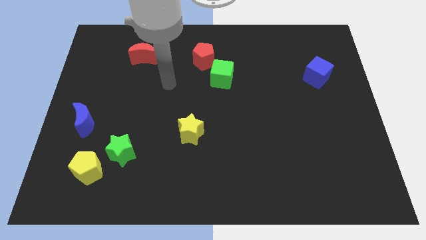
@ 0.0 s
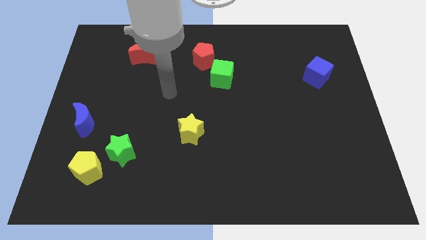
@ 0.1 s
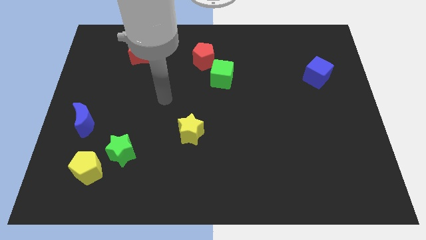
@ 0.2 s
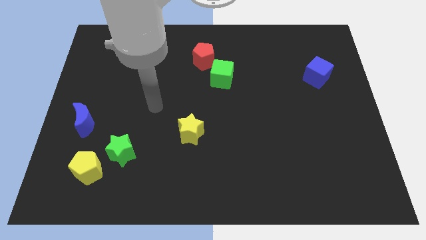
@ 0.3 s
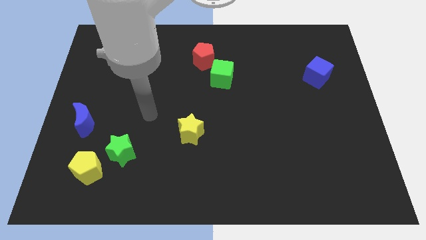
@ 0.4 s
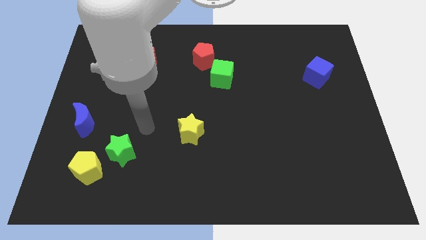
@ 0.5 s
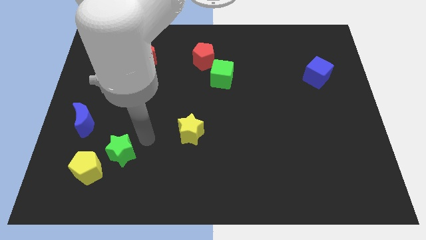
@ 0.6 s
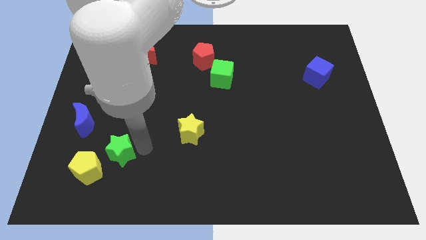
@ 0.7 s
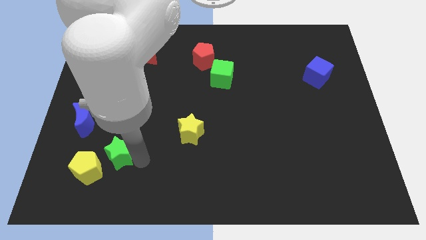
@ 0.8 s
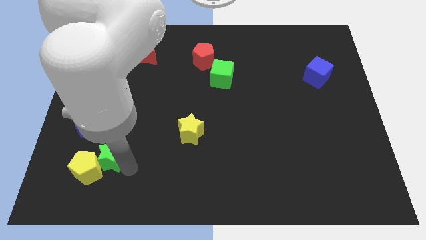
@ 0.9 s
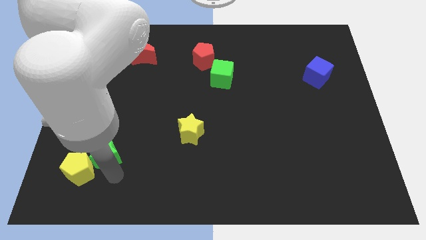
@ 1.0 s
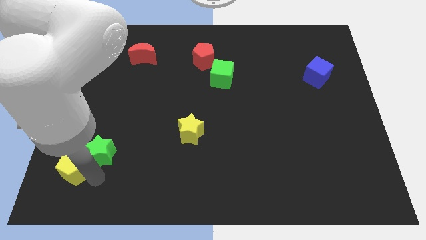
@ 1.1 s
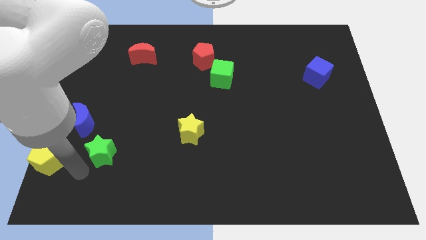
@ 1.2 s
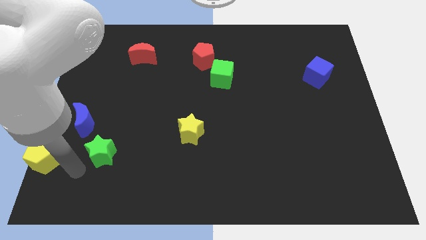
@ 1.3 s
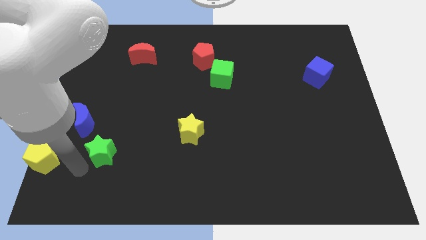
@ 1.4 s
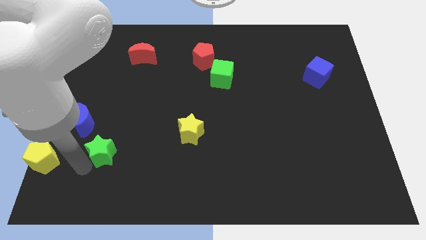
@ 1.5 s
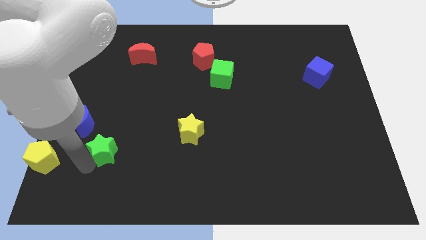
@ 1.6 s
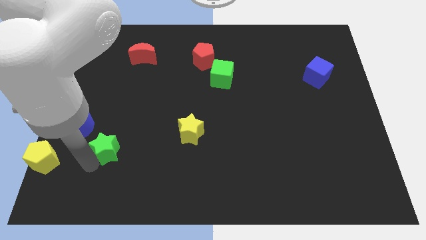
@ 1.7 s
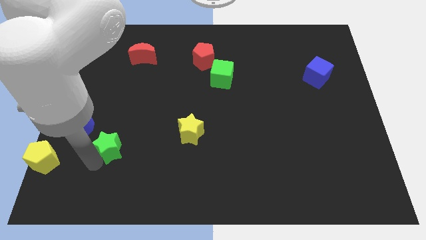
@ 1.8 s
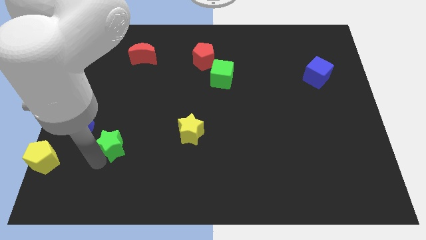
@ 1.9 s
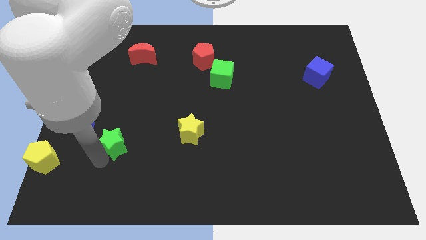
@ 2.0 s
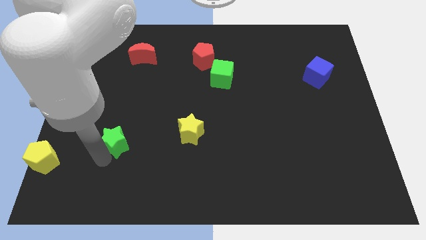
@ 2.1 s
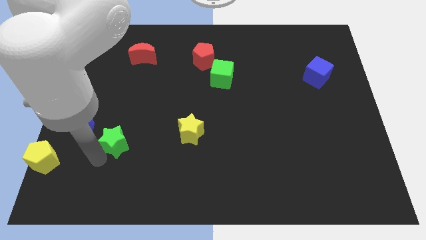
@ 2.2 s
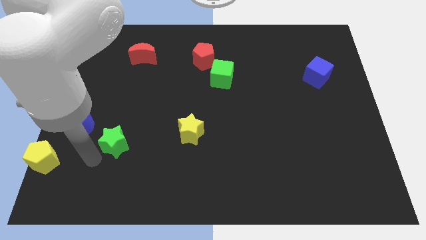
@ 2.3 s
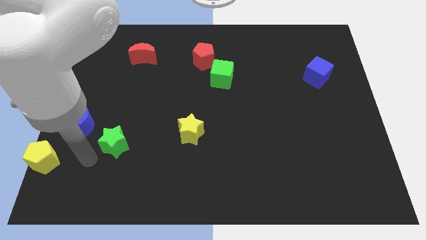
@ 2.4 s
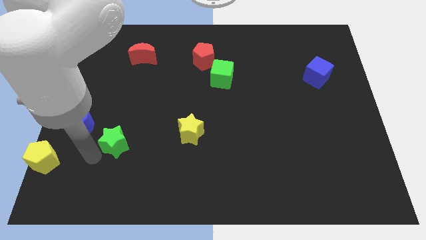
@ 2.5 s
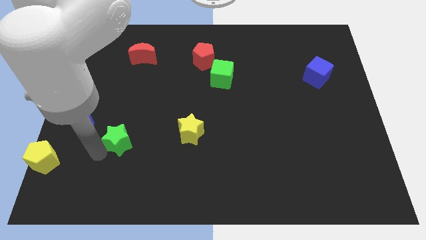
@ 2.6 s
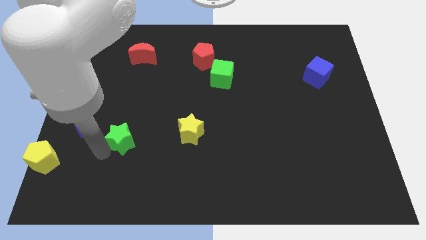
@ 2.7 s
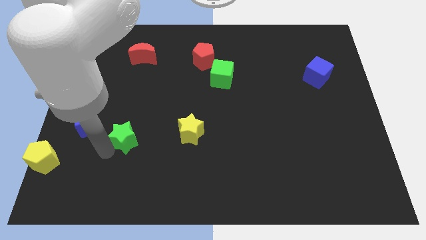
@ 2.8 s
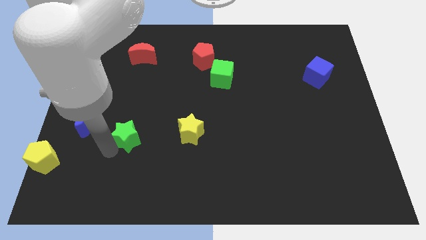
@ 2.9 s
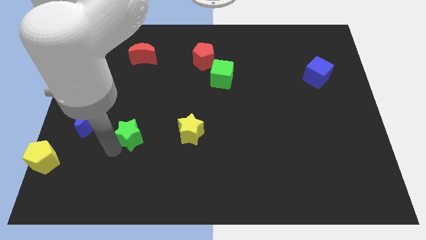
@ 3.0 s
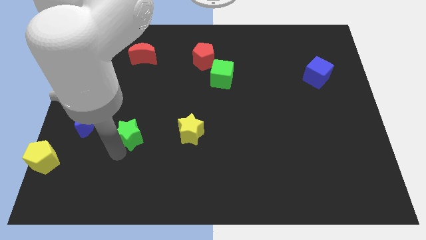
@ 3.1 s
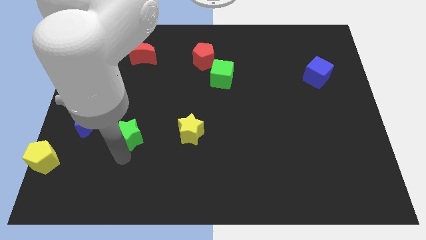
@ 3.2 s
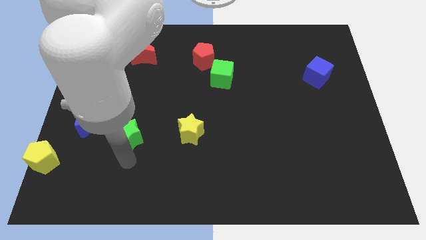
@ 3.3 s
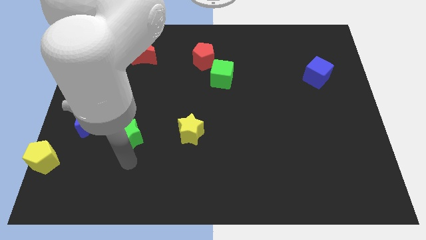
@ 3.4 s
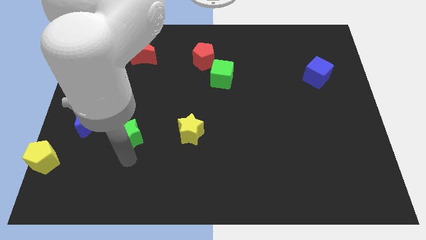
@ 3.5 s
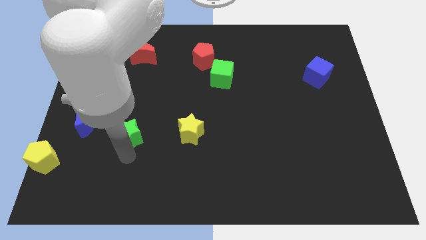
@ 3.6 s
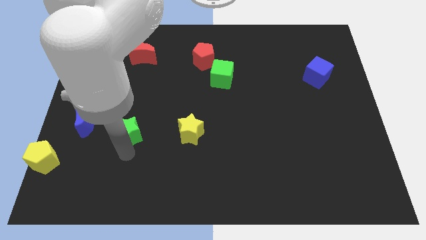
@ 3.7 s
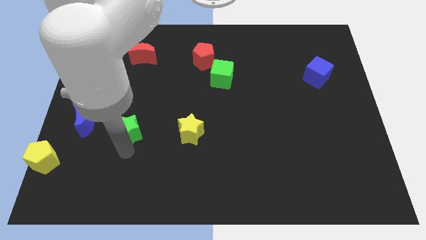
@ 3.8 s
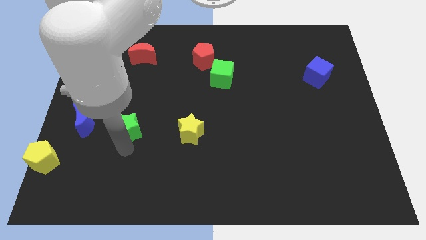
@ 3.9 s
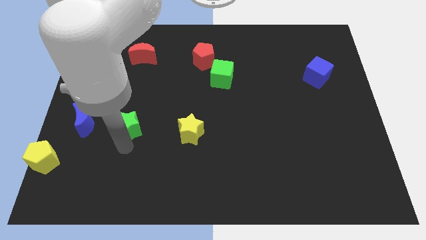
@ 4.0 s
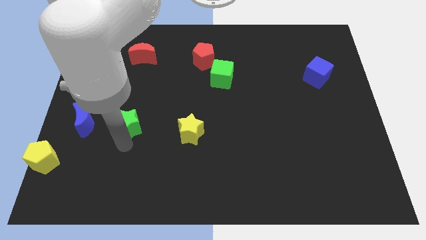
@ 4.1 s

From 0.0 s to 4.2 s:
slide the green star up a little

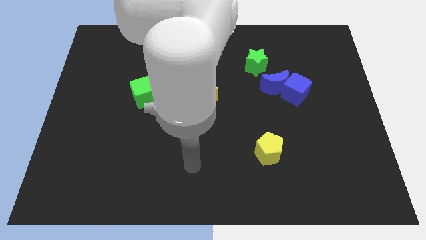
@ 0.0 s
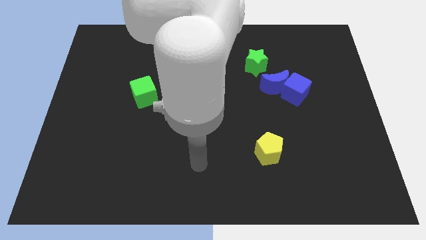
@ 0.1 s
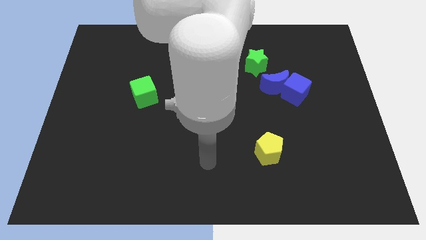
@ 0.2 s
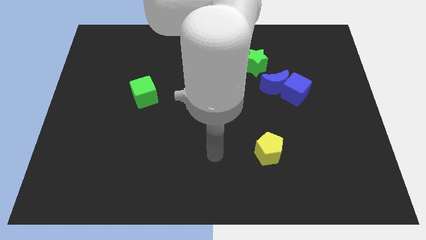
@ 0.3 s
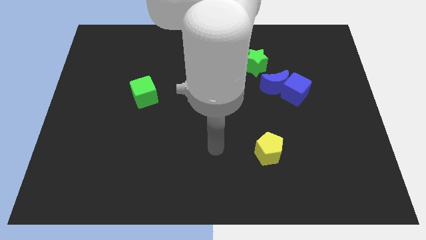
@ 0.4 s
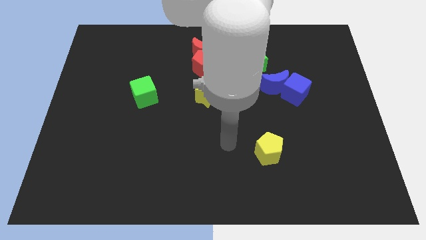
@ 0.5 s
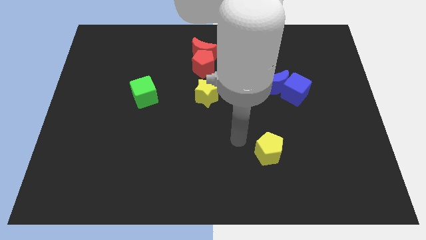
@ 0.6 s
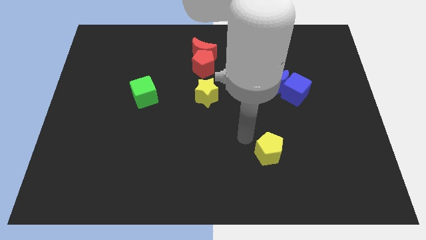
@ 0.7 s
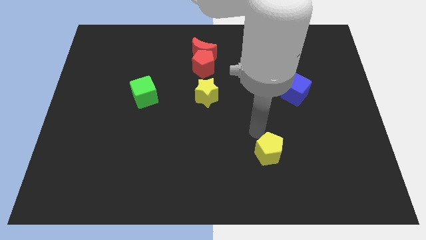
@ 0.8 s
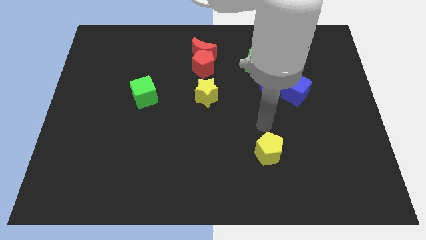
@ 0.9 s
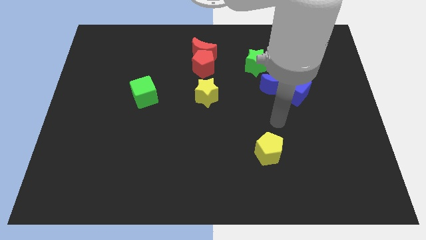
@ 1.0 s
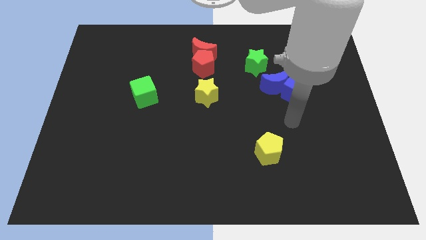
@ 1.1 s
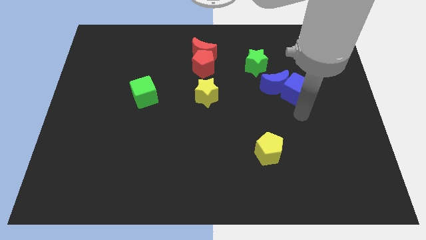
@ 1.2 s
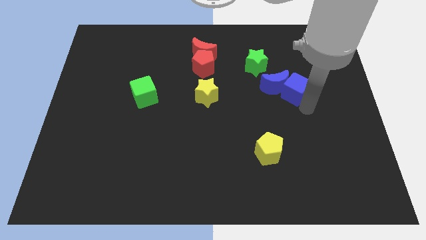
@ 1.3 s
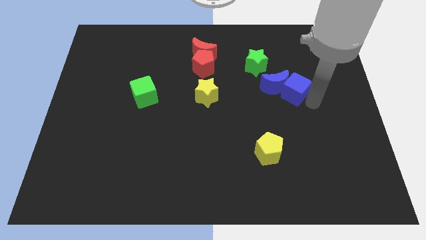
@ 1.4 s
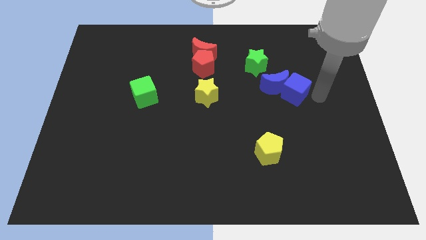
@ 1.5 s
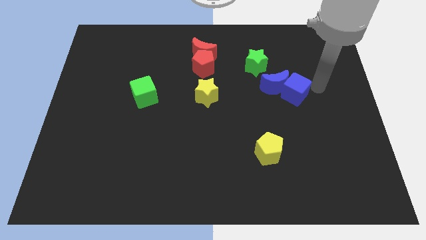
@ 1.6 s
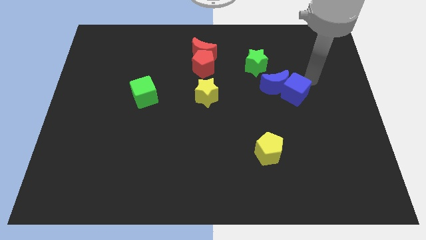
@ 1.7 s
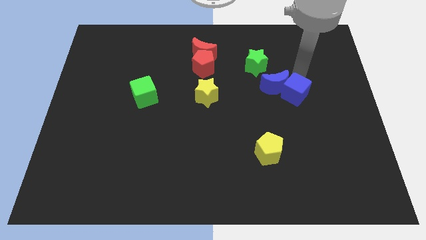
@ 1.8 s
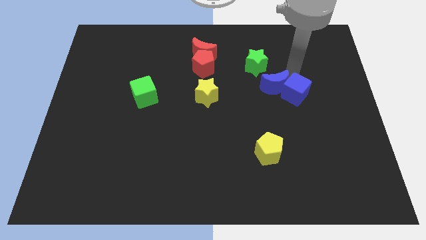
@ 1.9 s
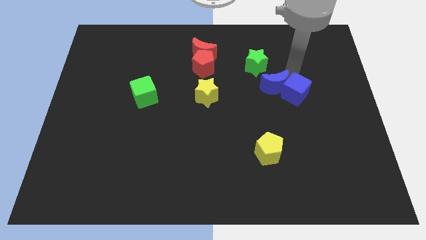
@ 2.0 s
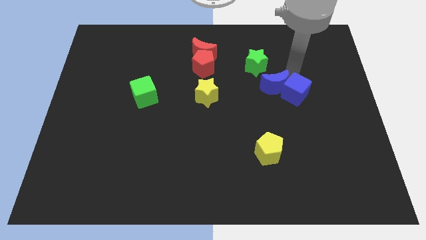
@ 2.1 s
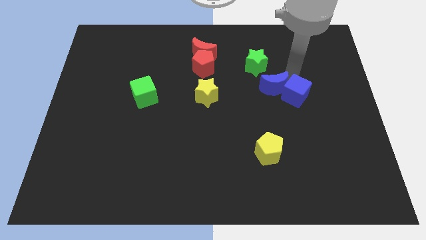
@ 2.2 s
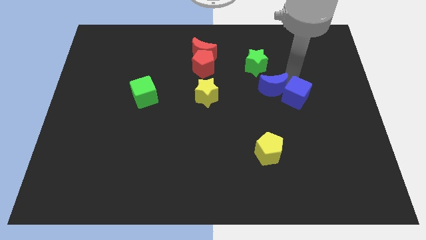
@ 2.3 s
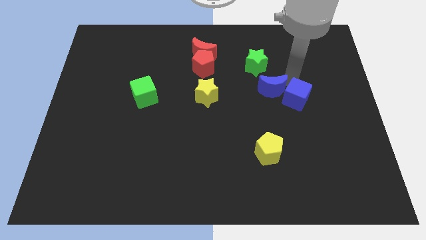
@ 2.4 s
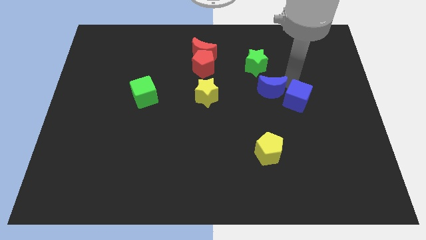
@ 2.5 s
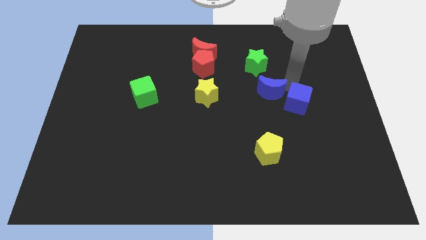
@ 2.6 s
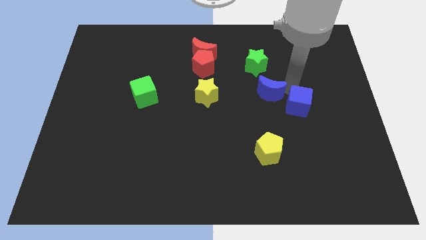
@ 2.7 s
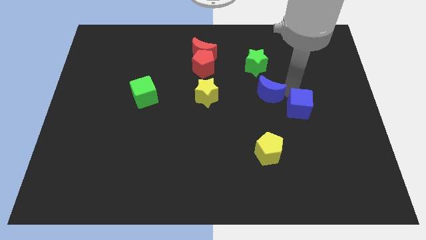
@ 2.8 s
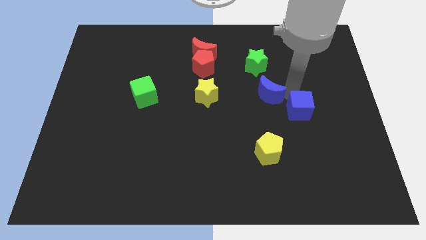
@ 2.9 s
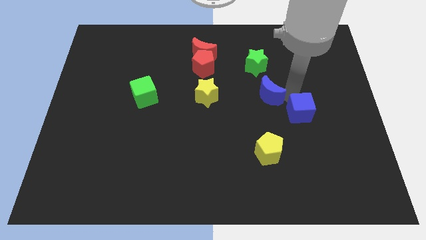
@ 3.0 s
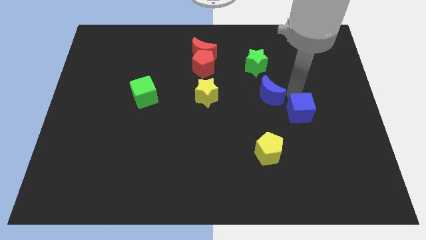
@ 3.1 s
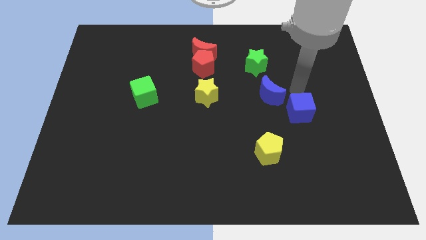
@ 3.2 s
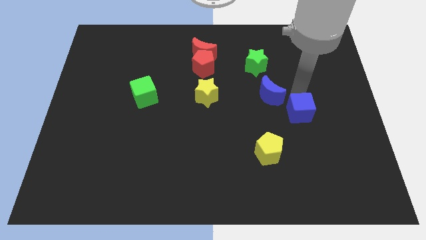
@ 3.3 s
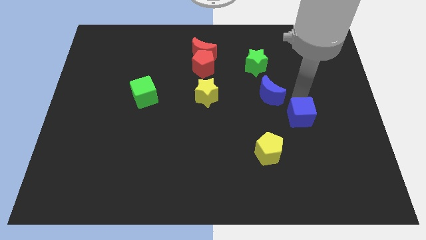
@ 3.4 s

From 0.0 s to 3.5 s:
move the blue cube down a little

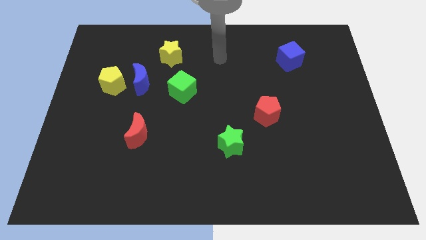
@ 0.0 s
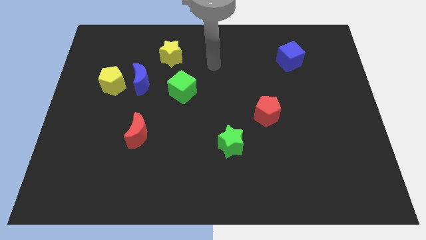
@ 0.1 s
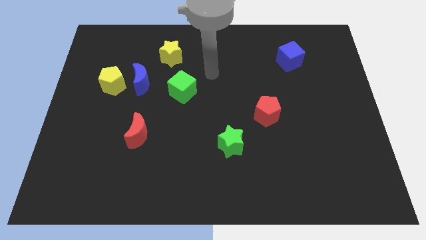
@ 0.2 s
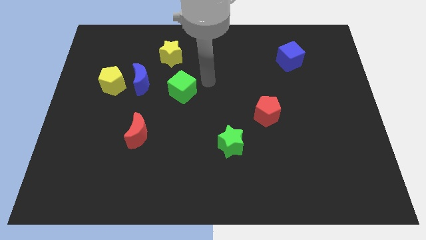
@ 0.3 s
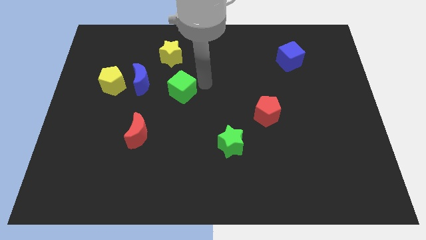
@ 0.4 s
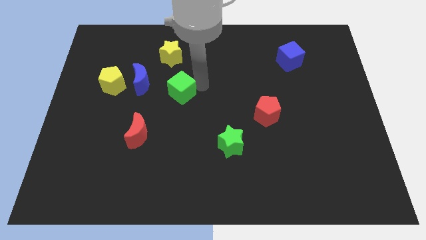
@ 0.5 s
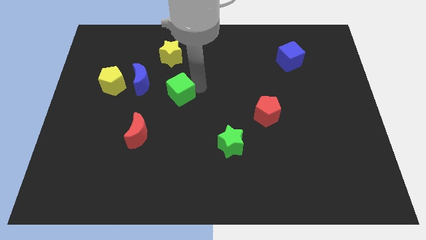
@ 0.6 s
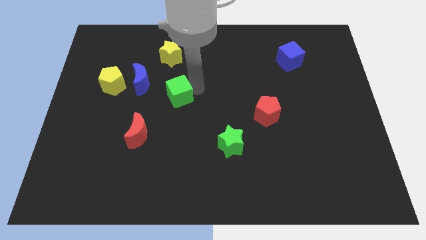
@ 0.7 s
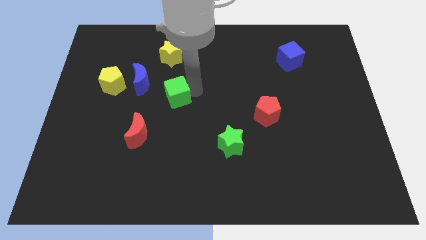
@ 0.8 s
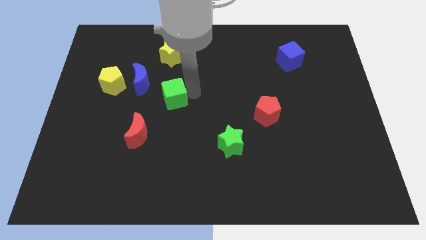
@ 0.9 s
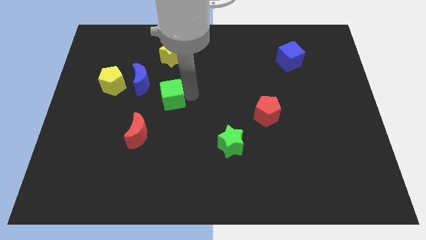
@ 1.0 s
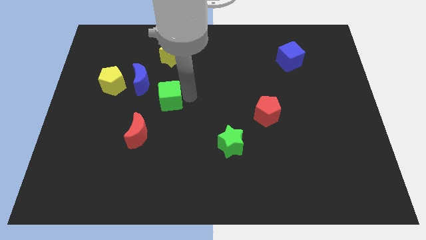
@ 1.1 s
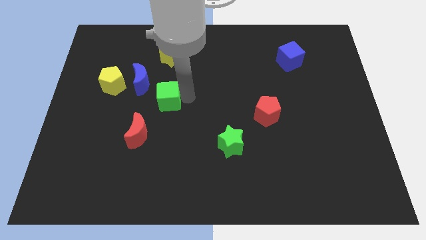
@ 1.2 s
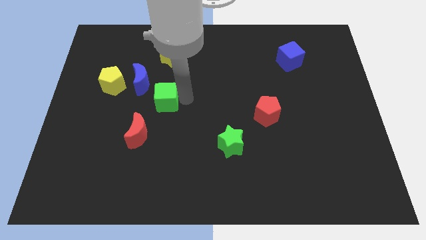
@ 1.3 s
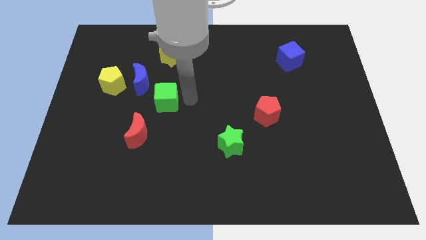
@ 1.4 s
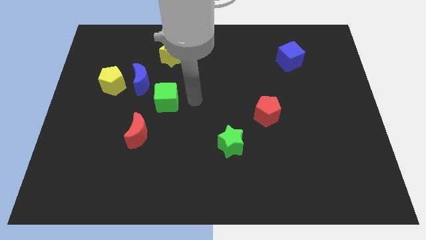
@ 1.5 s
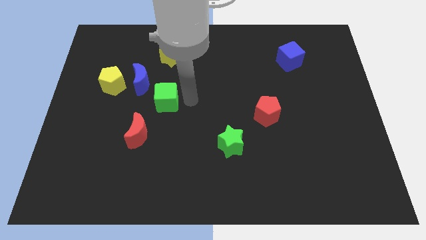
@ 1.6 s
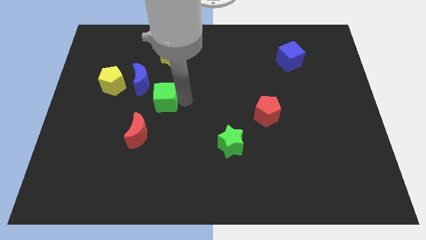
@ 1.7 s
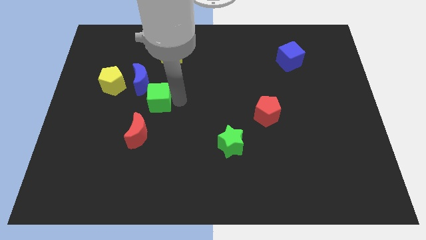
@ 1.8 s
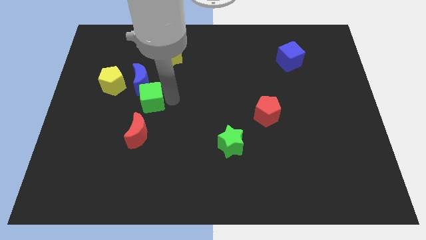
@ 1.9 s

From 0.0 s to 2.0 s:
slightly slide the green cube downwards and then left
